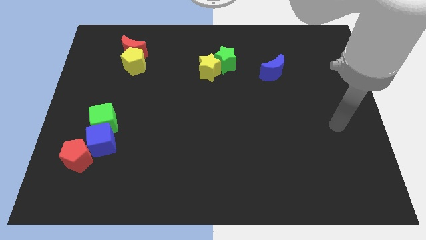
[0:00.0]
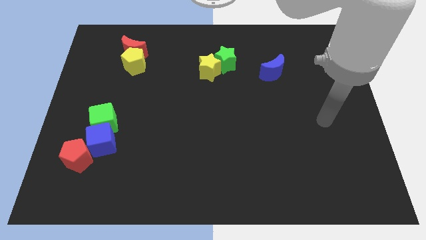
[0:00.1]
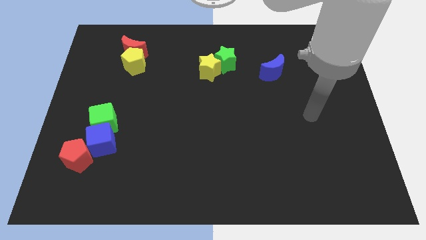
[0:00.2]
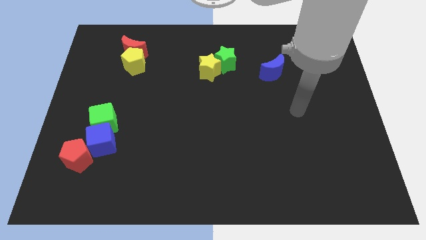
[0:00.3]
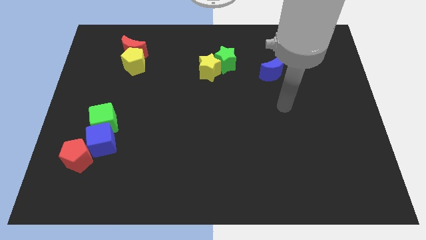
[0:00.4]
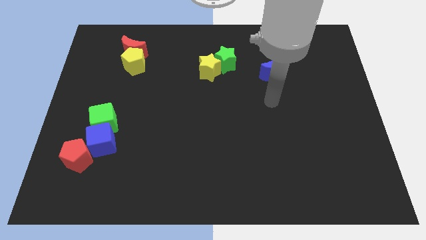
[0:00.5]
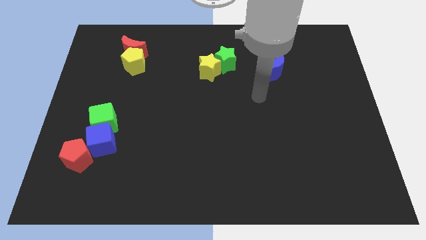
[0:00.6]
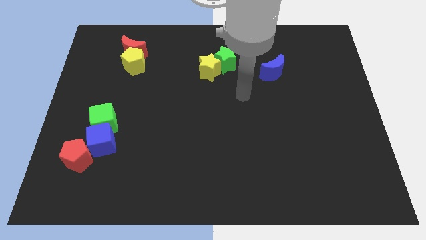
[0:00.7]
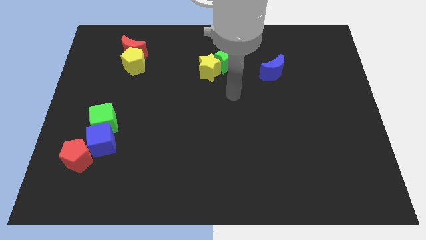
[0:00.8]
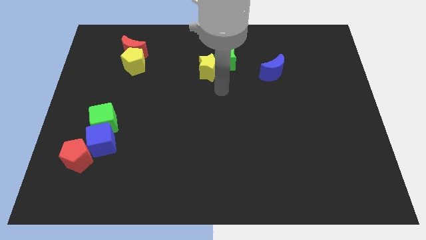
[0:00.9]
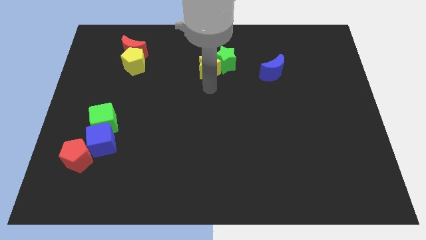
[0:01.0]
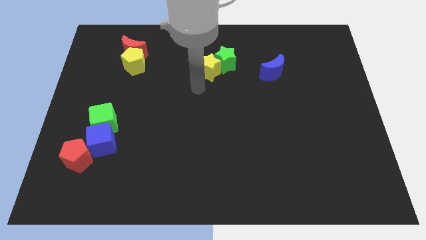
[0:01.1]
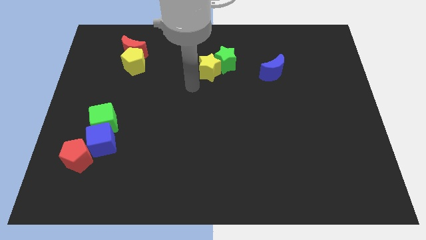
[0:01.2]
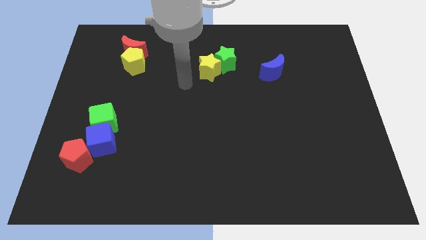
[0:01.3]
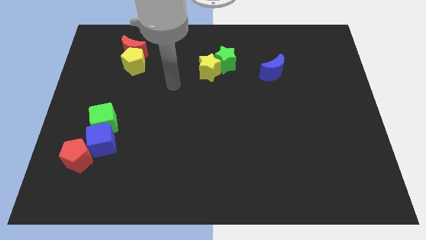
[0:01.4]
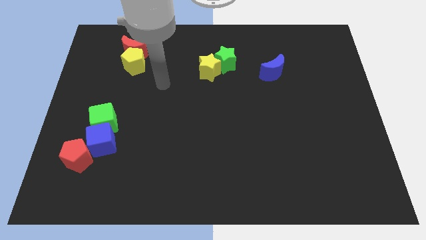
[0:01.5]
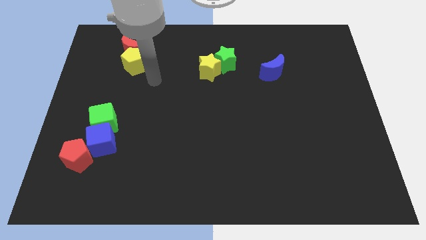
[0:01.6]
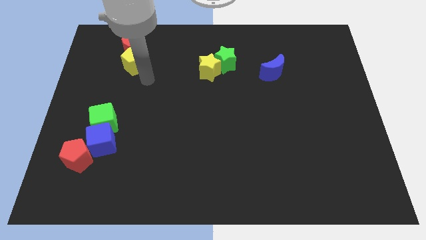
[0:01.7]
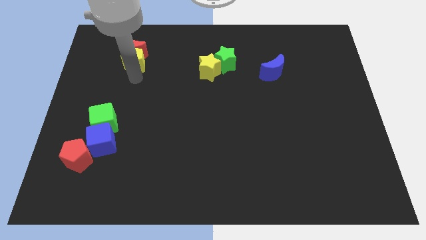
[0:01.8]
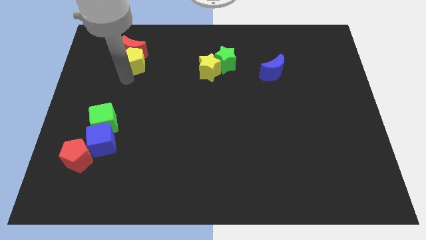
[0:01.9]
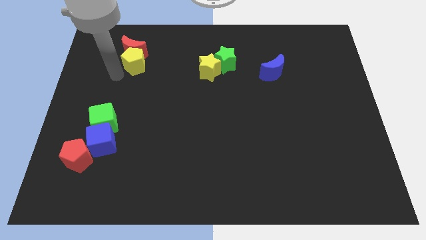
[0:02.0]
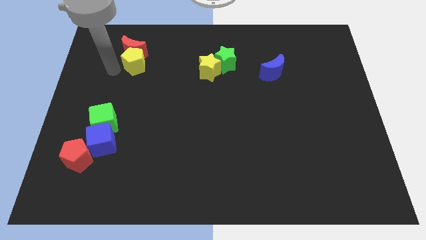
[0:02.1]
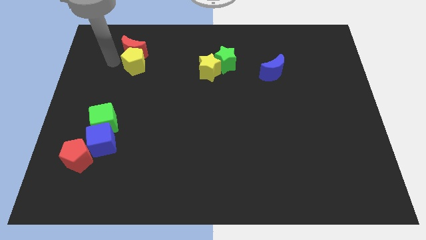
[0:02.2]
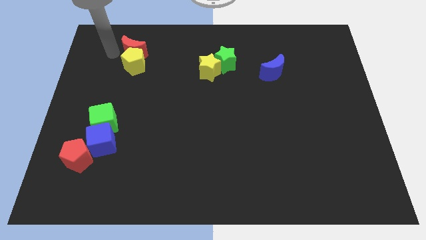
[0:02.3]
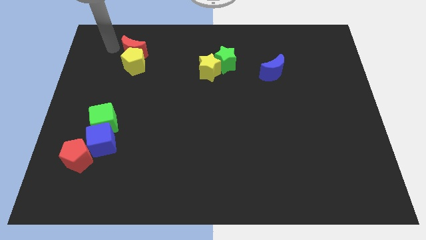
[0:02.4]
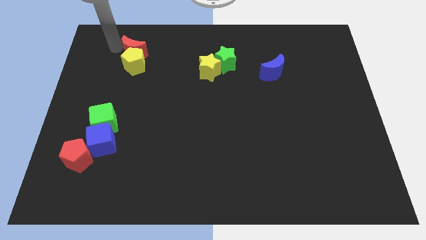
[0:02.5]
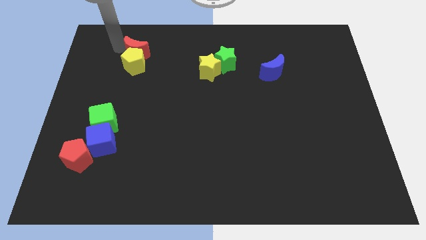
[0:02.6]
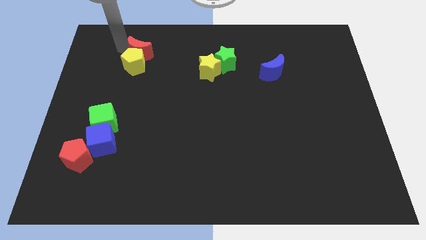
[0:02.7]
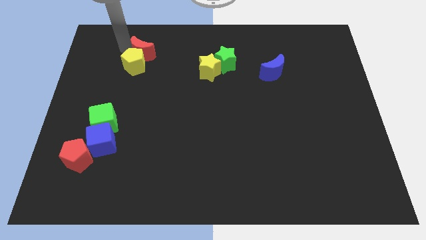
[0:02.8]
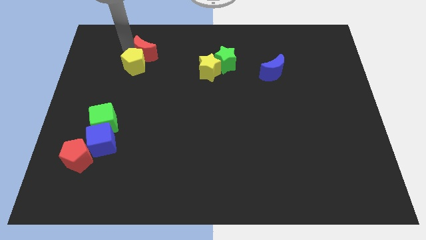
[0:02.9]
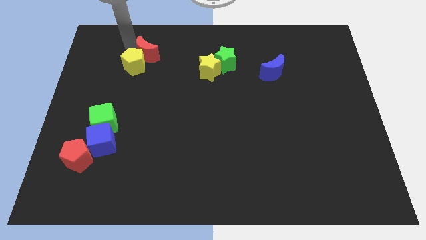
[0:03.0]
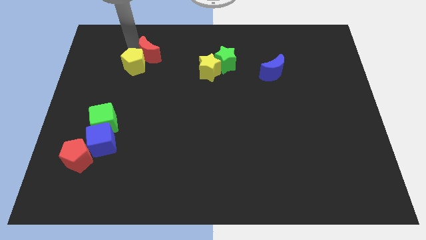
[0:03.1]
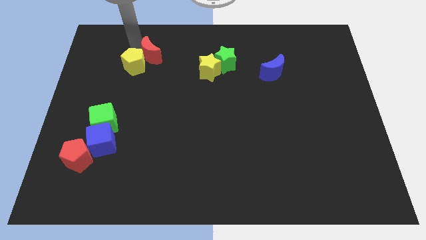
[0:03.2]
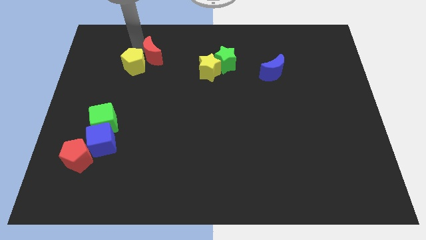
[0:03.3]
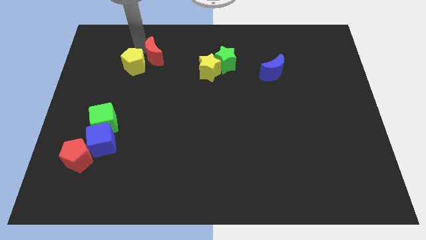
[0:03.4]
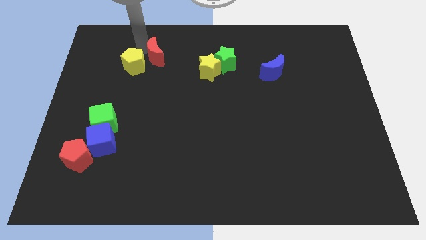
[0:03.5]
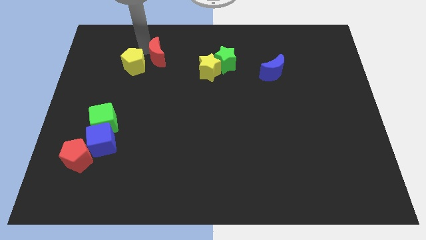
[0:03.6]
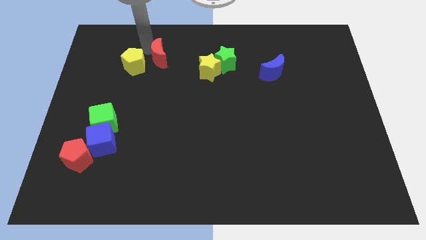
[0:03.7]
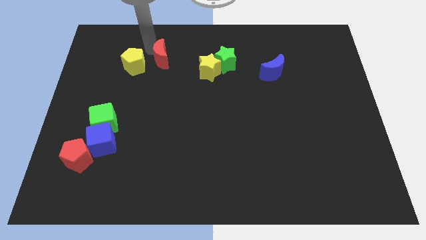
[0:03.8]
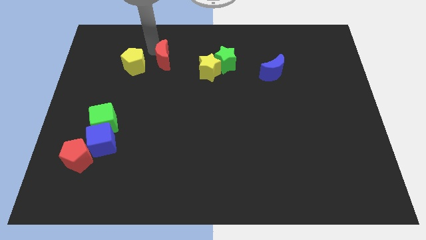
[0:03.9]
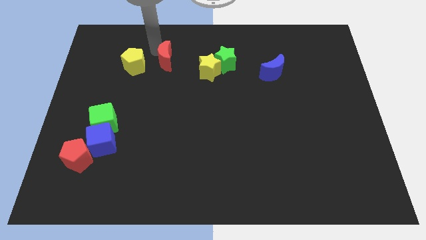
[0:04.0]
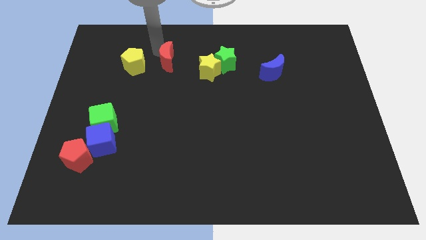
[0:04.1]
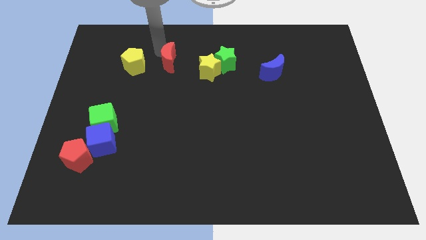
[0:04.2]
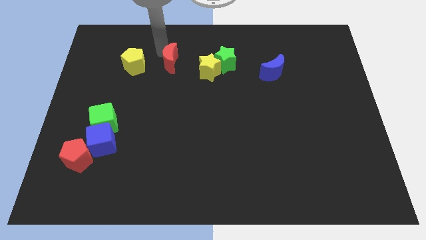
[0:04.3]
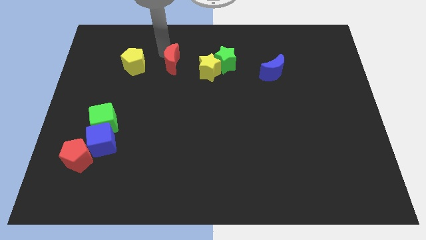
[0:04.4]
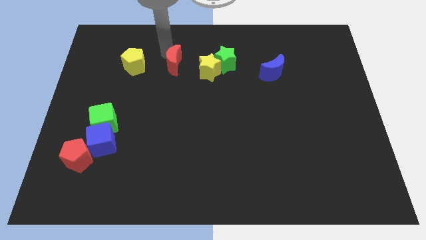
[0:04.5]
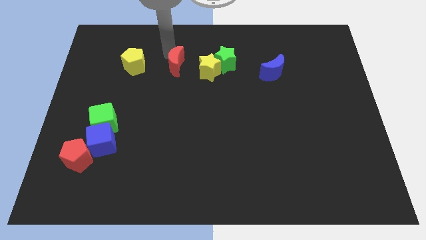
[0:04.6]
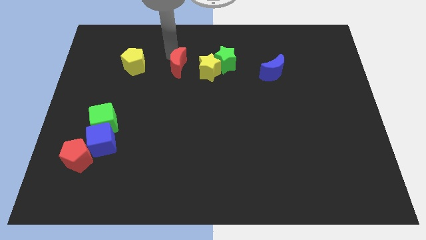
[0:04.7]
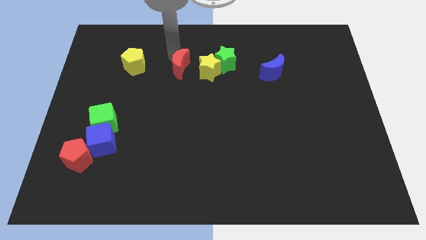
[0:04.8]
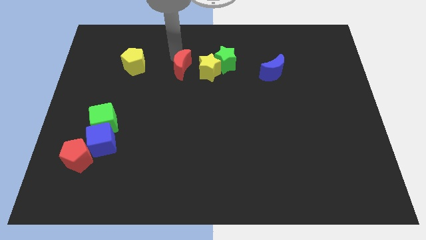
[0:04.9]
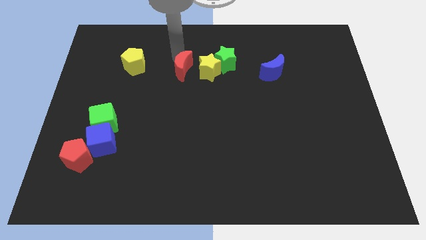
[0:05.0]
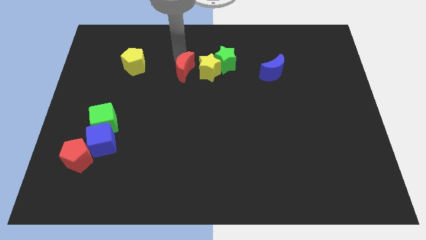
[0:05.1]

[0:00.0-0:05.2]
slide the red moon to the middle of the board

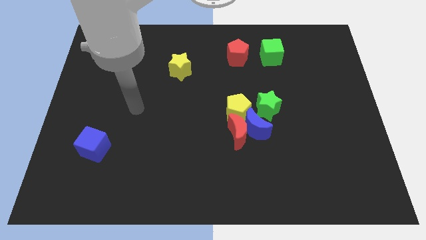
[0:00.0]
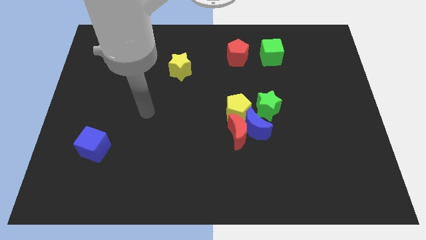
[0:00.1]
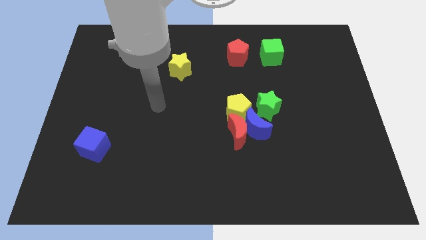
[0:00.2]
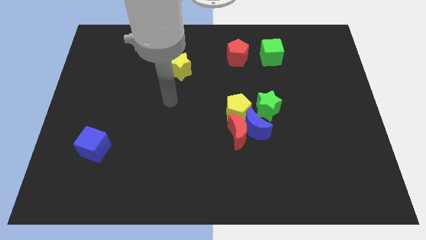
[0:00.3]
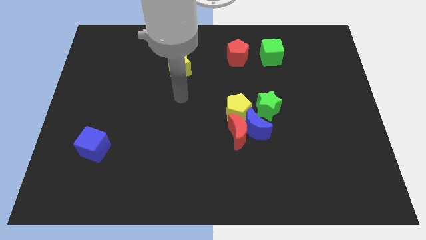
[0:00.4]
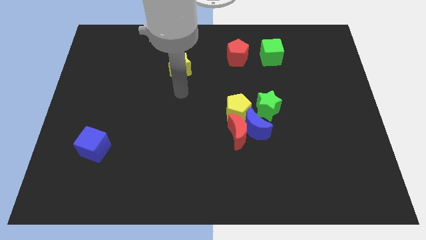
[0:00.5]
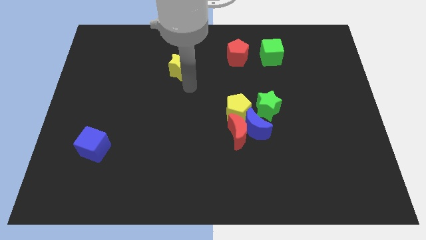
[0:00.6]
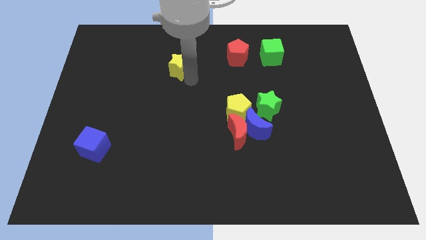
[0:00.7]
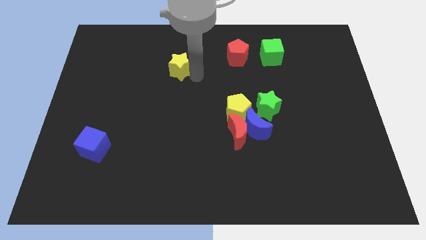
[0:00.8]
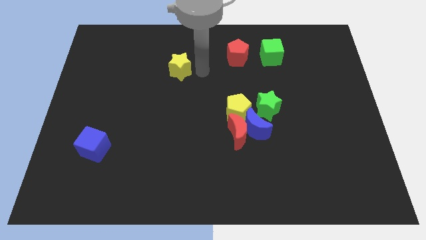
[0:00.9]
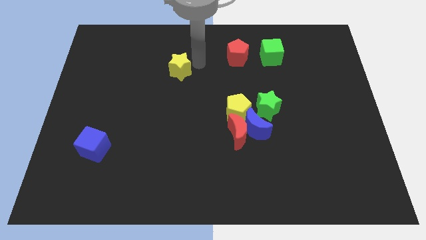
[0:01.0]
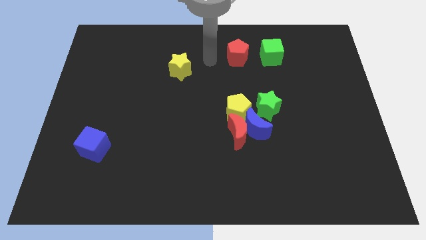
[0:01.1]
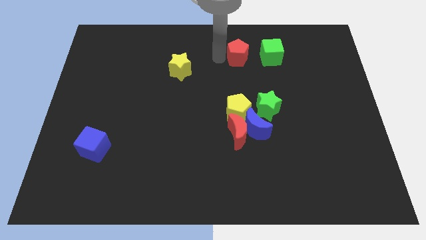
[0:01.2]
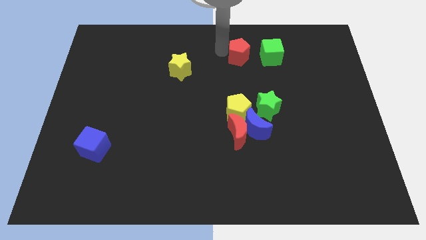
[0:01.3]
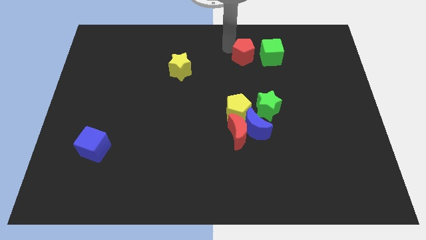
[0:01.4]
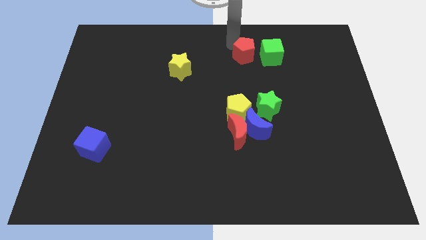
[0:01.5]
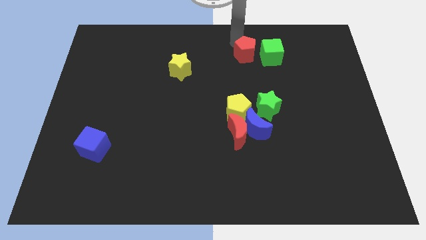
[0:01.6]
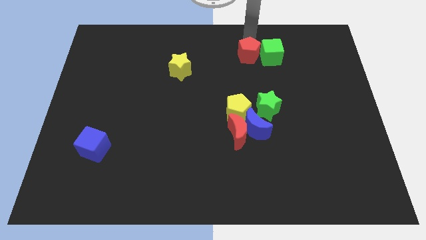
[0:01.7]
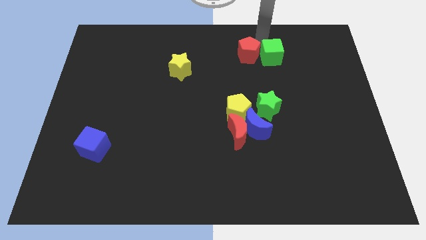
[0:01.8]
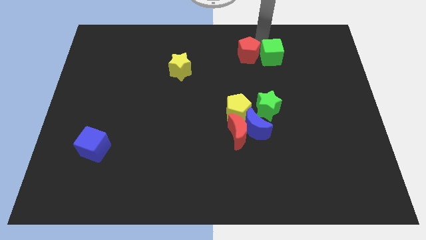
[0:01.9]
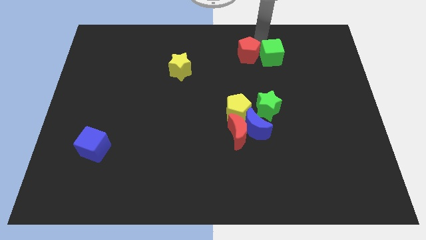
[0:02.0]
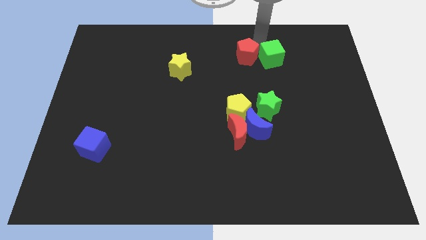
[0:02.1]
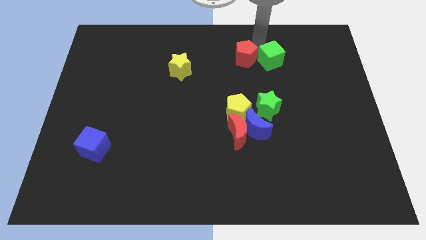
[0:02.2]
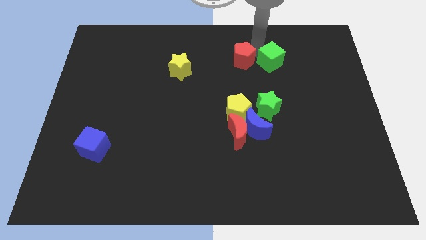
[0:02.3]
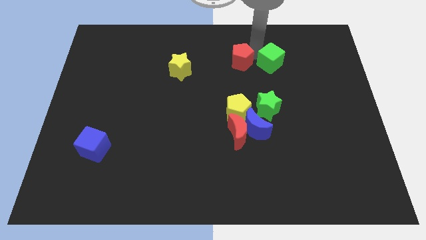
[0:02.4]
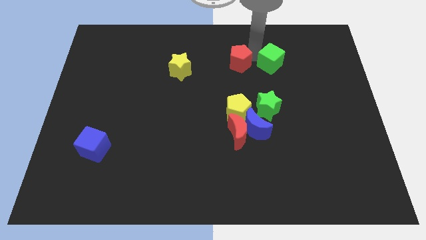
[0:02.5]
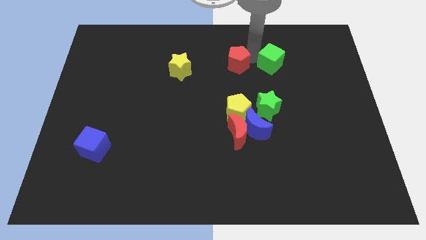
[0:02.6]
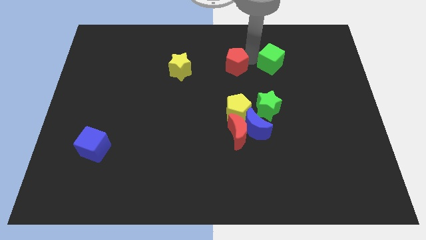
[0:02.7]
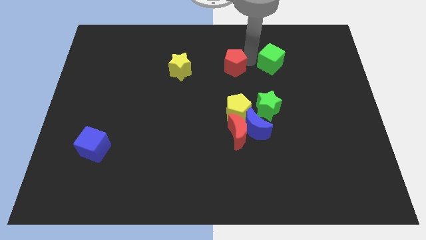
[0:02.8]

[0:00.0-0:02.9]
push the red pentagon to the center of the board
